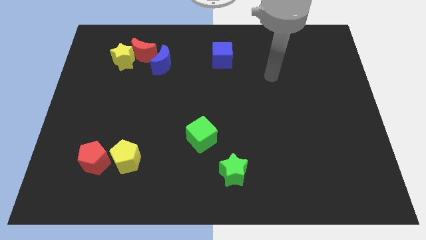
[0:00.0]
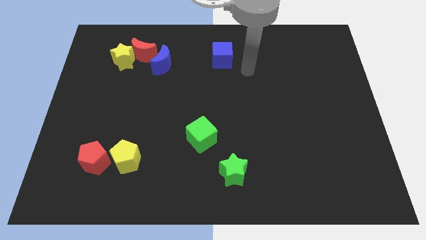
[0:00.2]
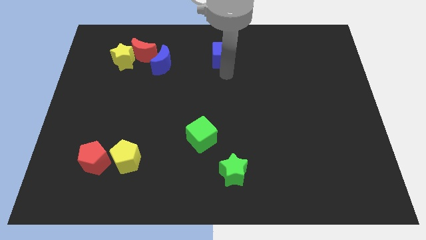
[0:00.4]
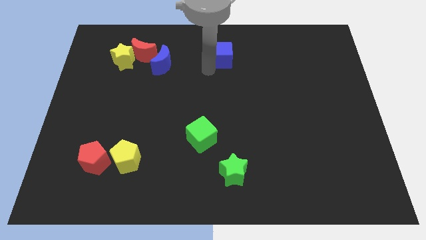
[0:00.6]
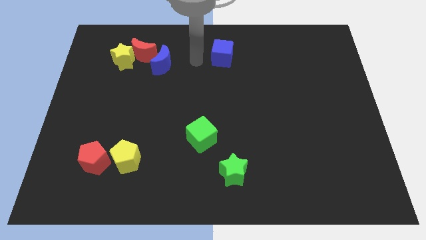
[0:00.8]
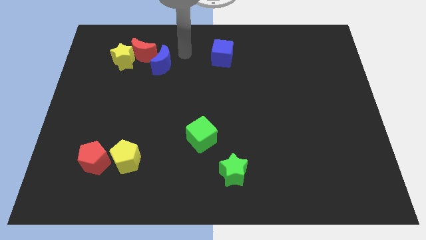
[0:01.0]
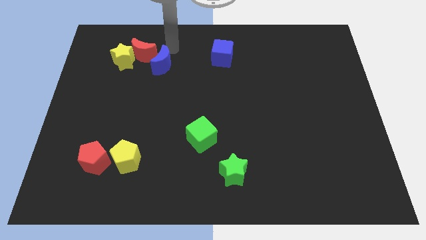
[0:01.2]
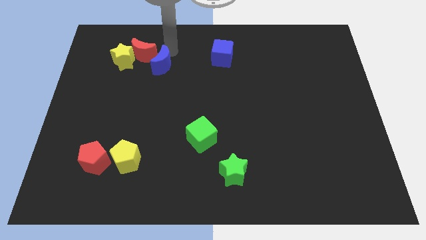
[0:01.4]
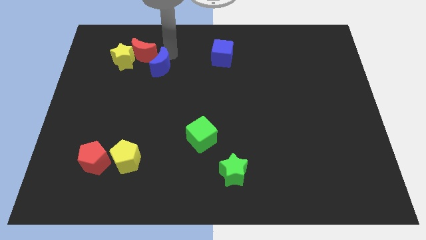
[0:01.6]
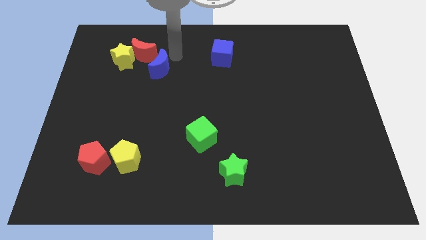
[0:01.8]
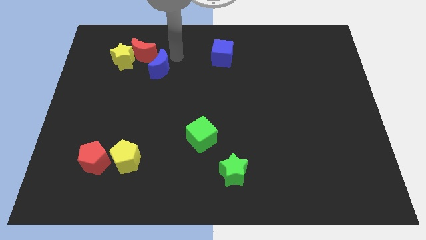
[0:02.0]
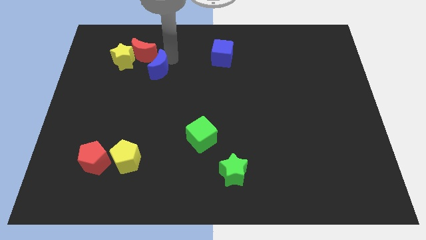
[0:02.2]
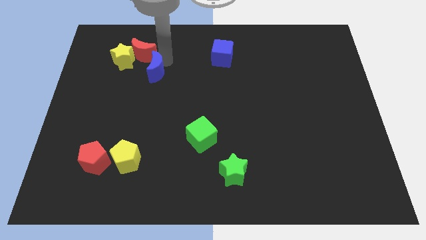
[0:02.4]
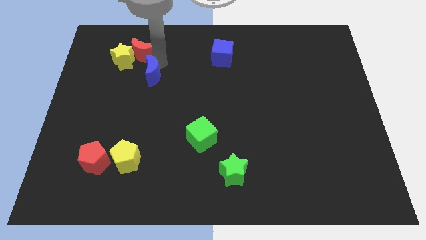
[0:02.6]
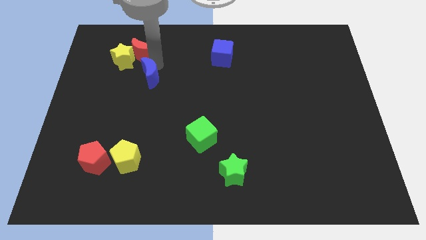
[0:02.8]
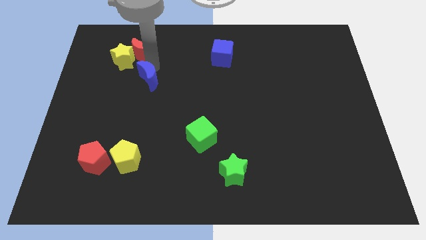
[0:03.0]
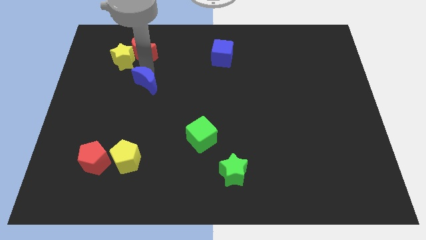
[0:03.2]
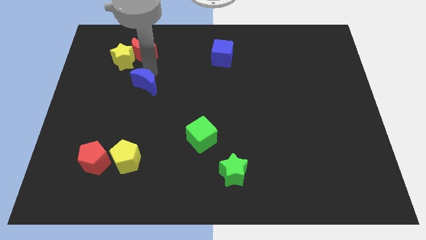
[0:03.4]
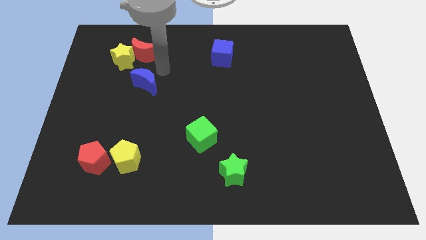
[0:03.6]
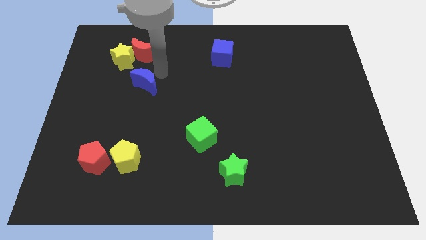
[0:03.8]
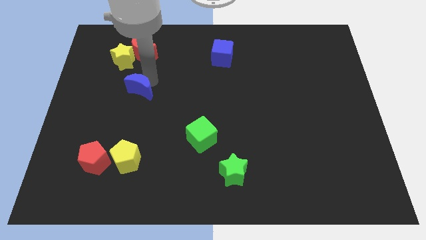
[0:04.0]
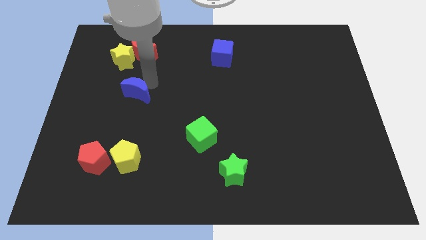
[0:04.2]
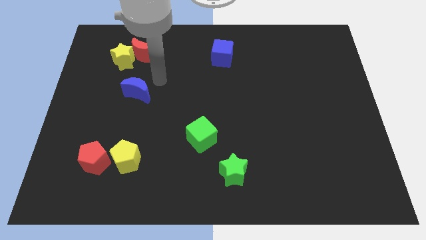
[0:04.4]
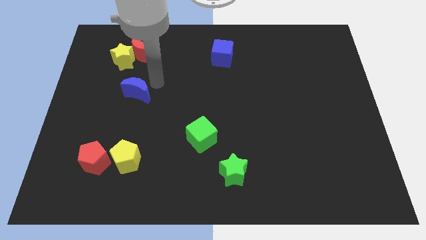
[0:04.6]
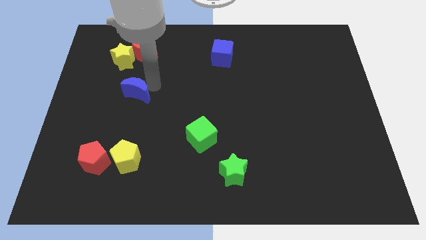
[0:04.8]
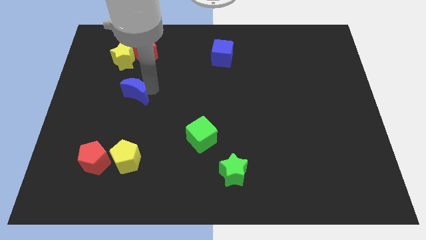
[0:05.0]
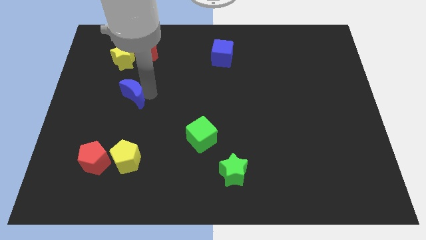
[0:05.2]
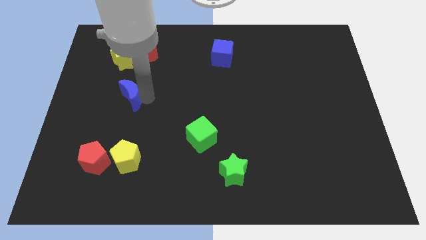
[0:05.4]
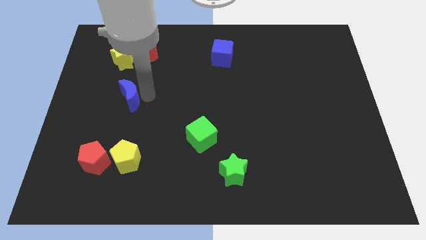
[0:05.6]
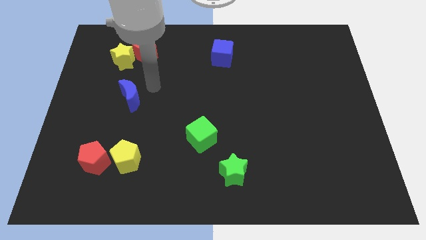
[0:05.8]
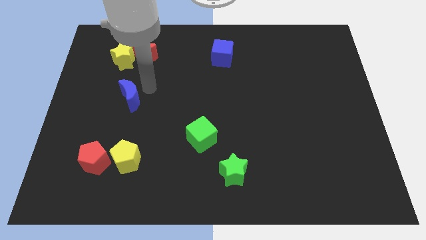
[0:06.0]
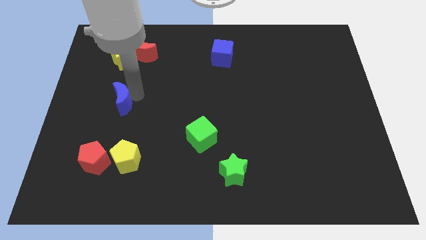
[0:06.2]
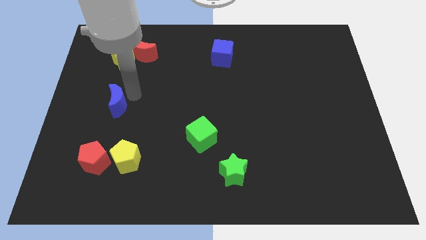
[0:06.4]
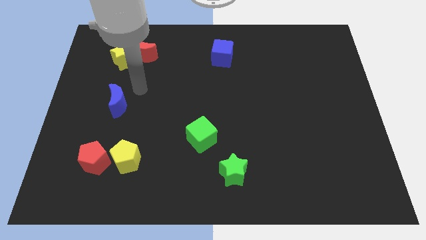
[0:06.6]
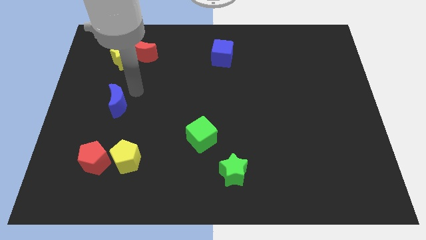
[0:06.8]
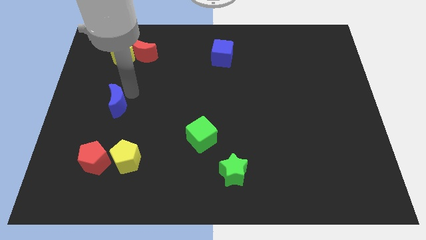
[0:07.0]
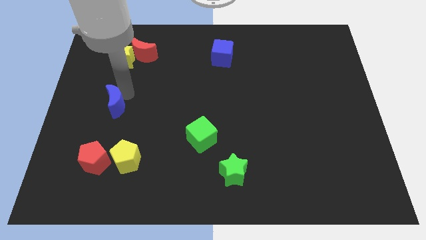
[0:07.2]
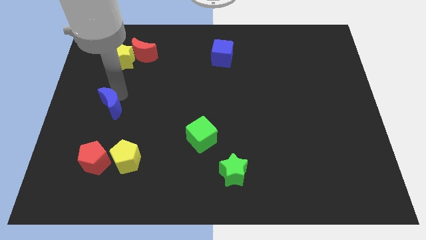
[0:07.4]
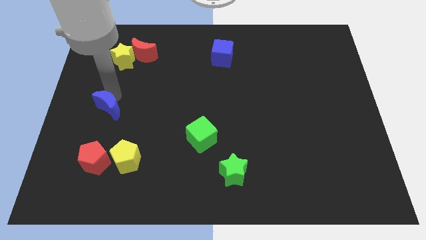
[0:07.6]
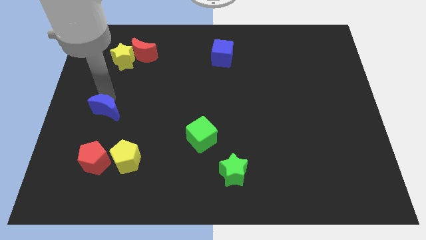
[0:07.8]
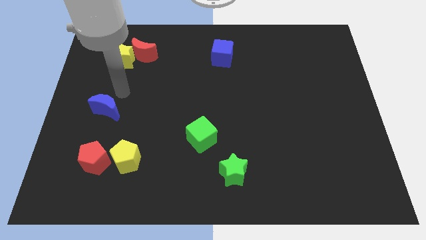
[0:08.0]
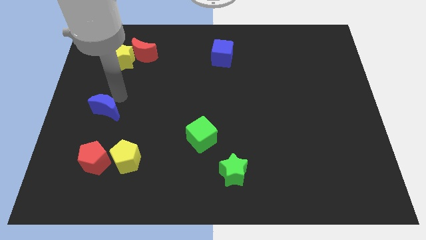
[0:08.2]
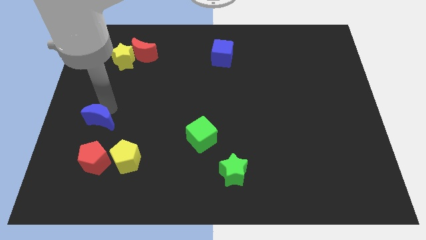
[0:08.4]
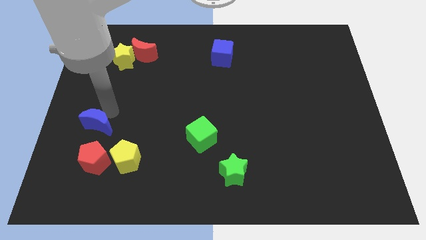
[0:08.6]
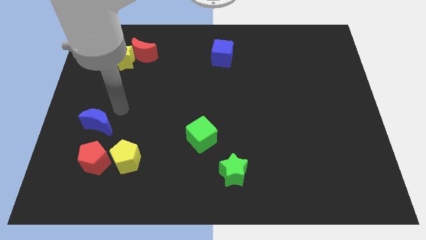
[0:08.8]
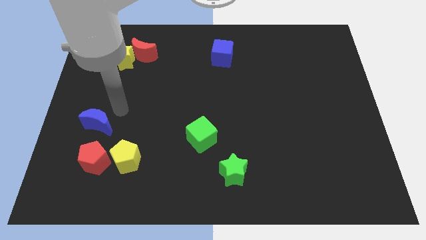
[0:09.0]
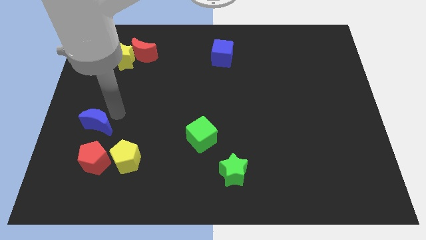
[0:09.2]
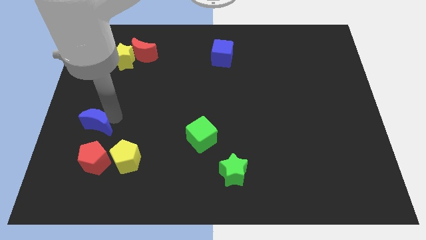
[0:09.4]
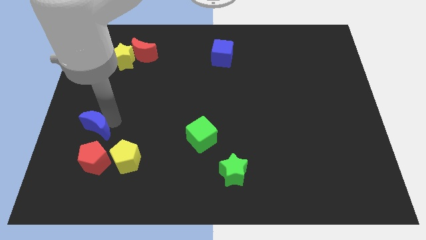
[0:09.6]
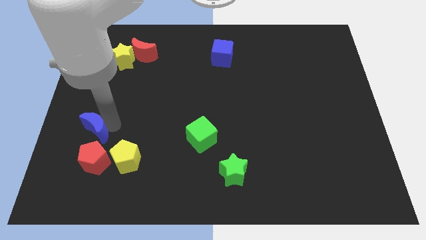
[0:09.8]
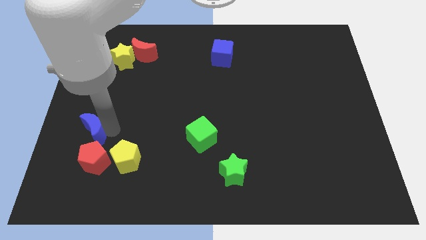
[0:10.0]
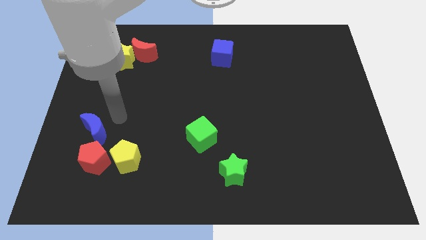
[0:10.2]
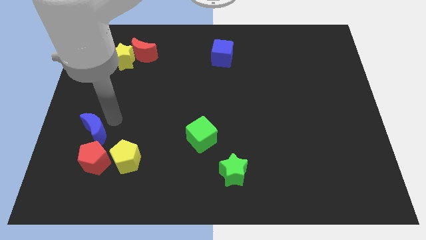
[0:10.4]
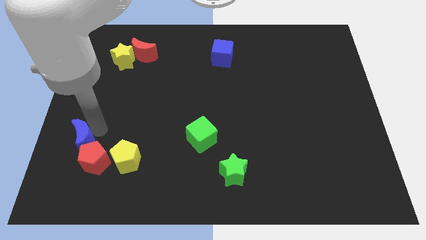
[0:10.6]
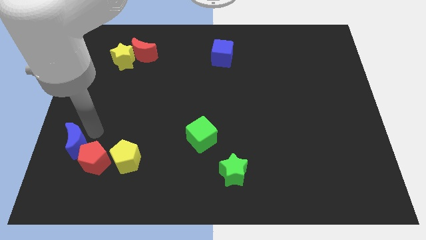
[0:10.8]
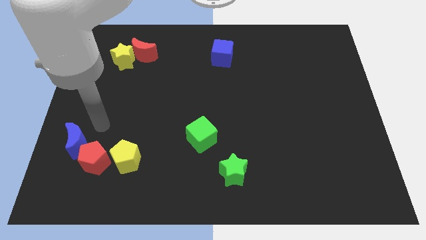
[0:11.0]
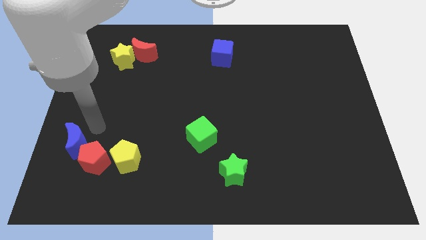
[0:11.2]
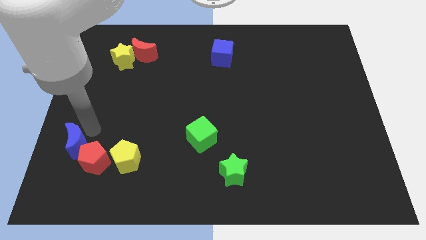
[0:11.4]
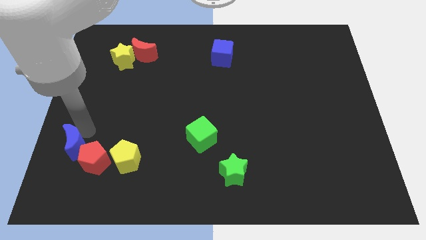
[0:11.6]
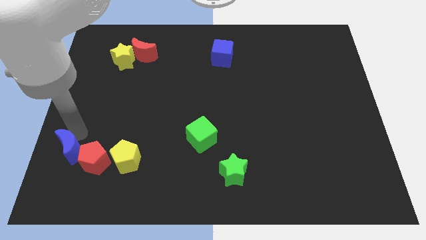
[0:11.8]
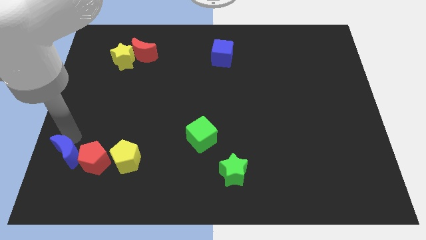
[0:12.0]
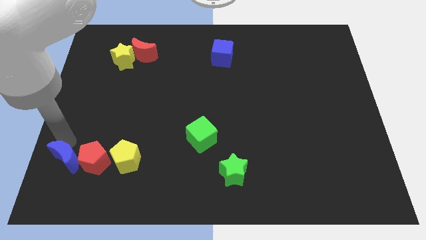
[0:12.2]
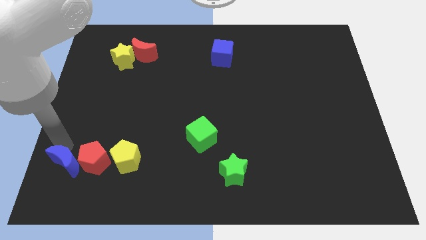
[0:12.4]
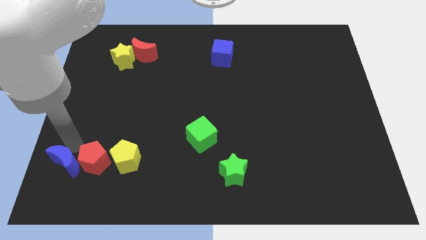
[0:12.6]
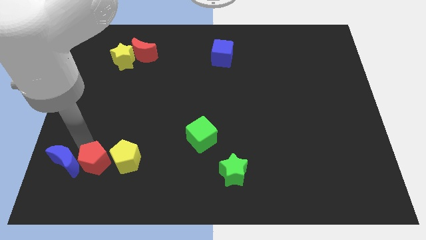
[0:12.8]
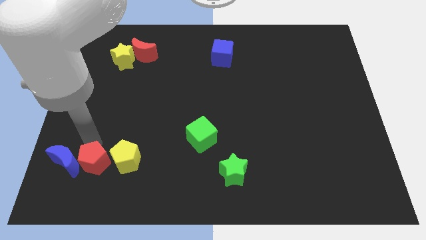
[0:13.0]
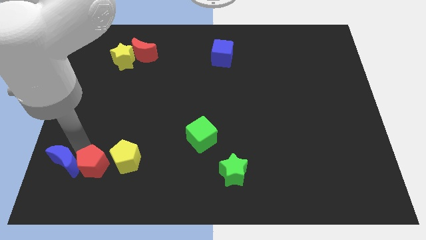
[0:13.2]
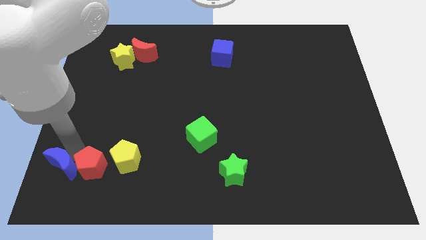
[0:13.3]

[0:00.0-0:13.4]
put the blue moon to the bottom left of the board

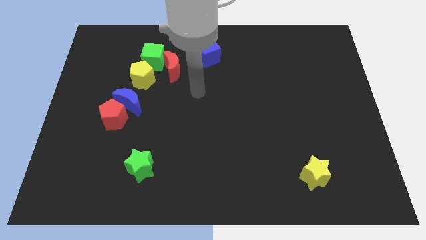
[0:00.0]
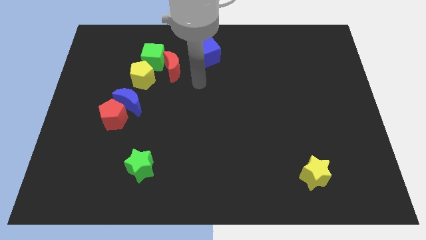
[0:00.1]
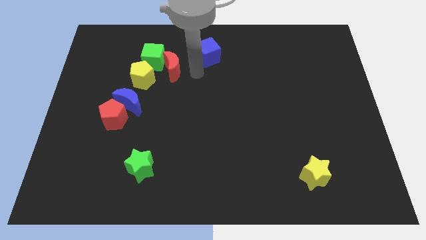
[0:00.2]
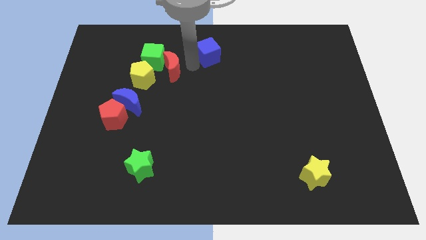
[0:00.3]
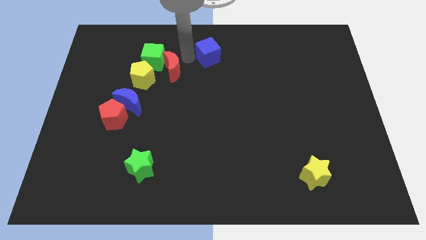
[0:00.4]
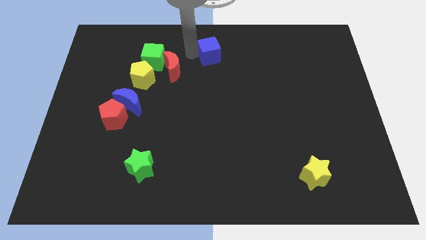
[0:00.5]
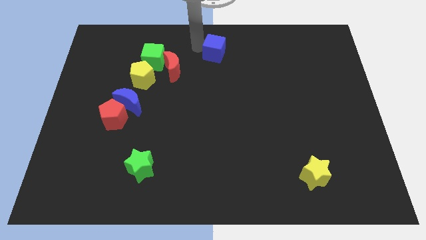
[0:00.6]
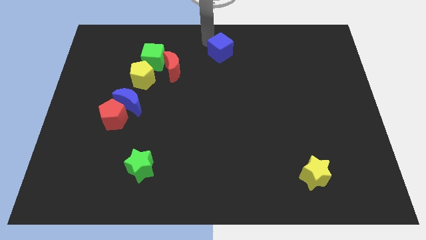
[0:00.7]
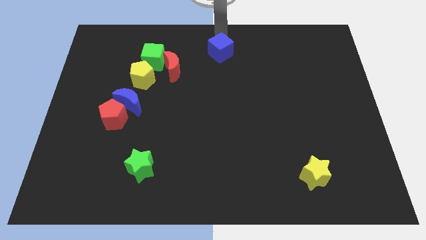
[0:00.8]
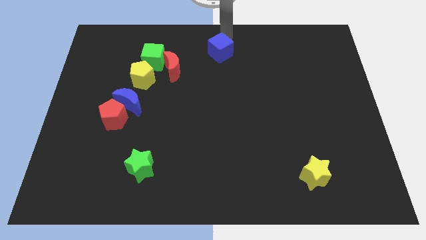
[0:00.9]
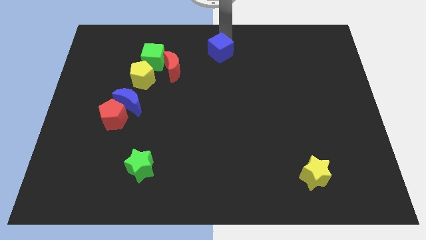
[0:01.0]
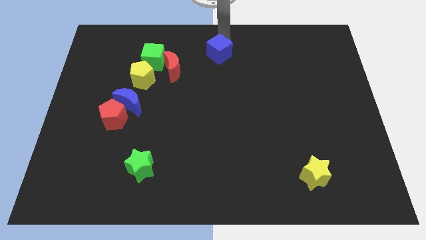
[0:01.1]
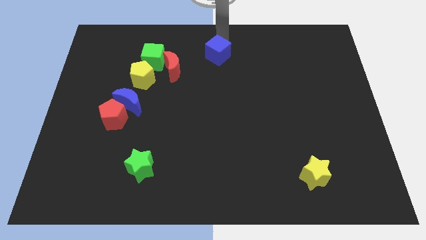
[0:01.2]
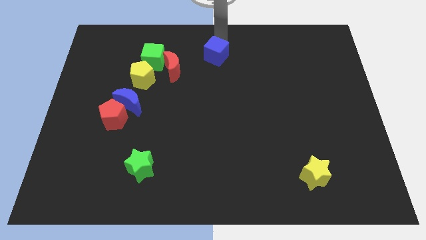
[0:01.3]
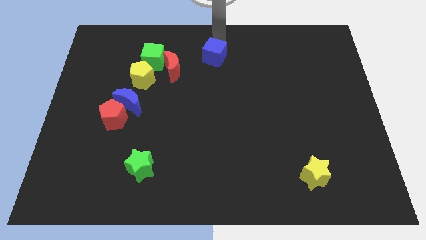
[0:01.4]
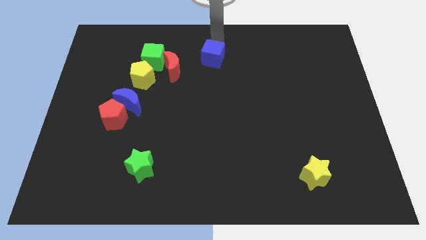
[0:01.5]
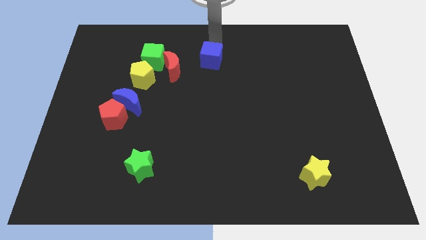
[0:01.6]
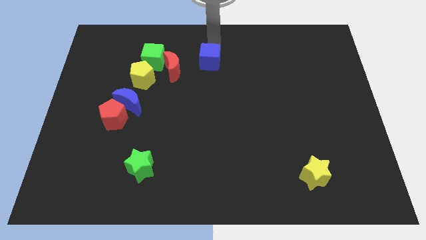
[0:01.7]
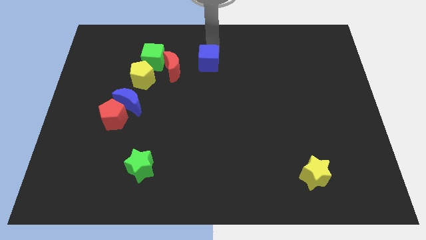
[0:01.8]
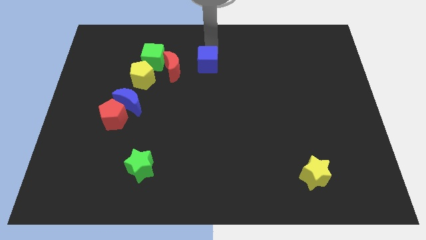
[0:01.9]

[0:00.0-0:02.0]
move the blue cube to the middle
